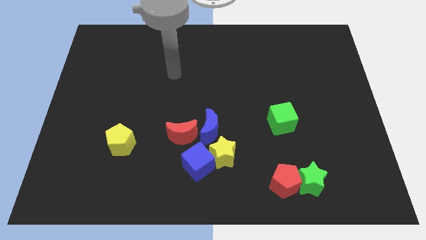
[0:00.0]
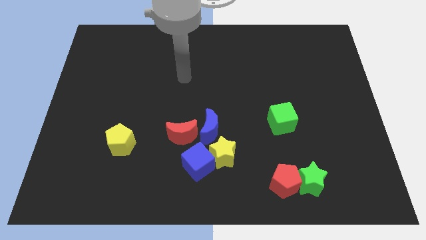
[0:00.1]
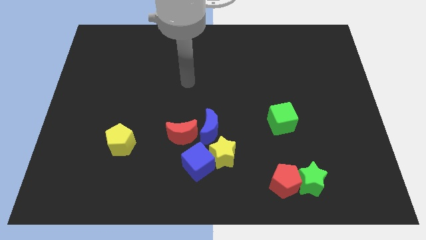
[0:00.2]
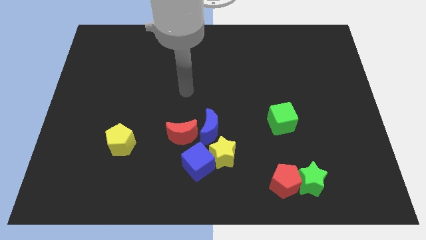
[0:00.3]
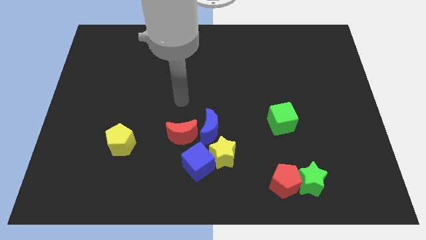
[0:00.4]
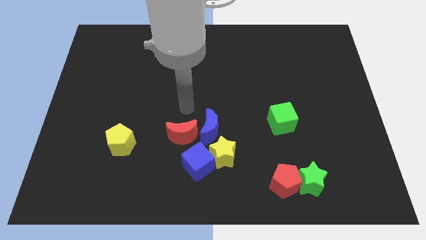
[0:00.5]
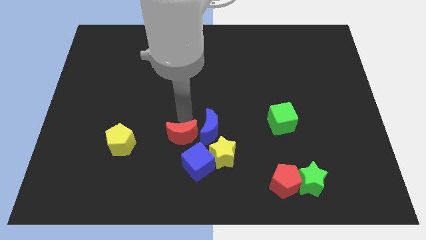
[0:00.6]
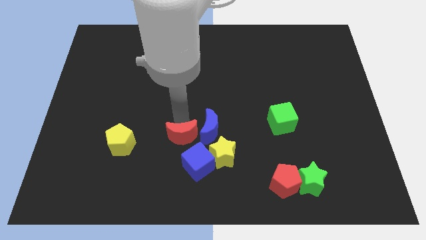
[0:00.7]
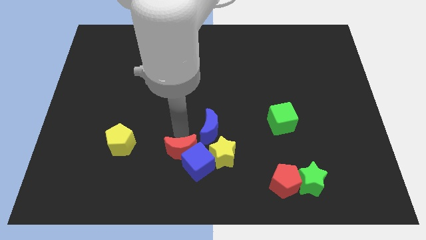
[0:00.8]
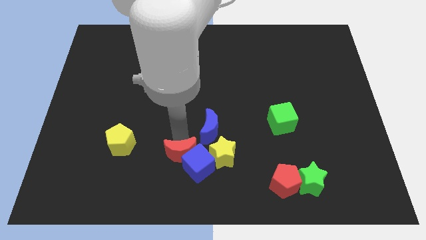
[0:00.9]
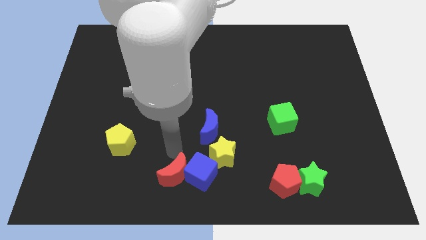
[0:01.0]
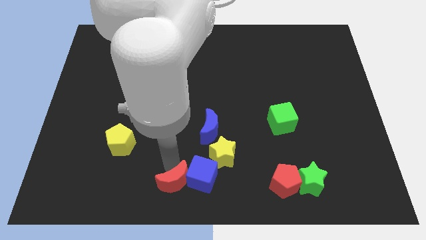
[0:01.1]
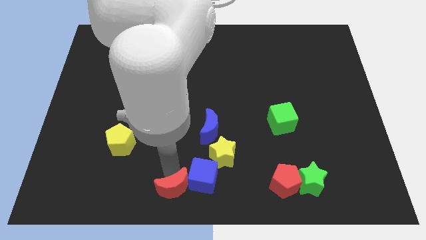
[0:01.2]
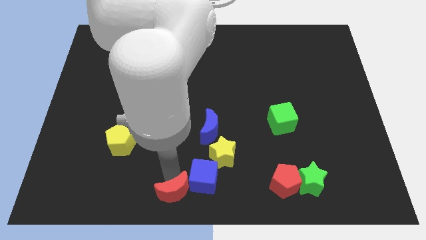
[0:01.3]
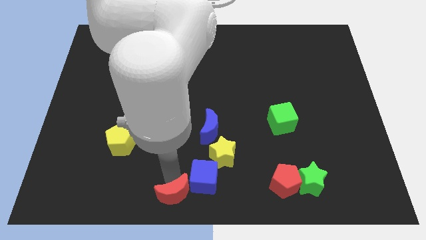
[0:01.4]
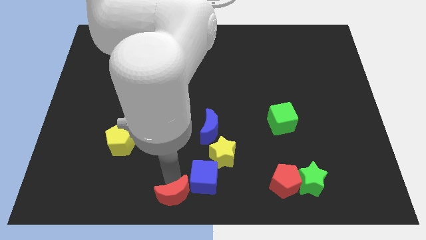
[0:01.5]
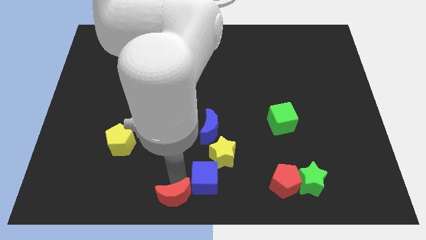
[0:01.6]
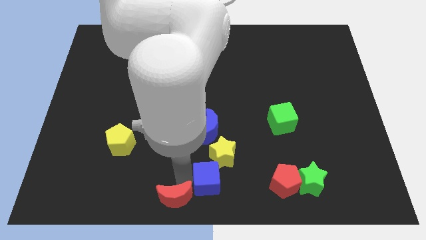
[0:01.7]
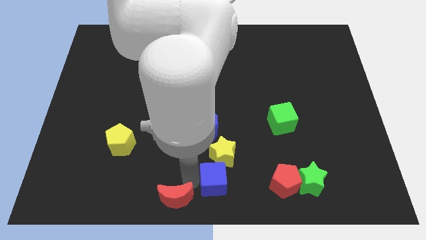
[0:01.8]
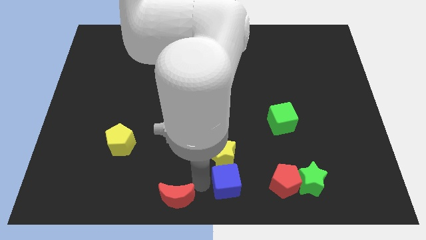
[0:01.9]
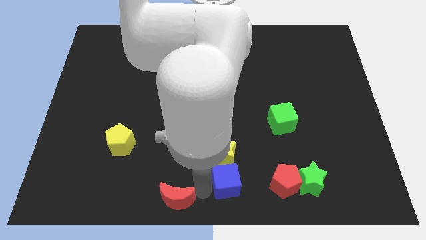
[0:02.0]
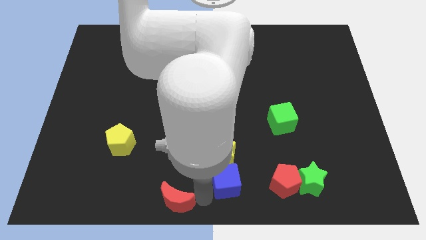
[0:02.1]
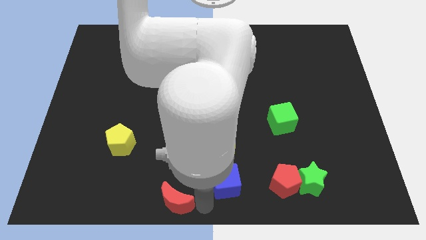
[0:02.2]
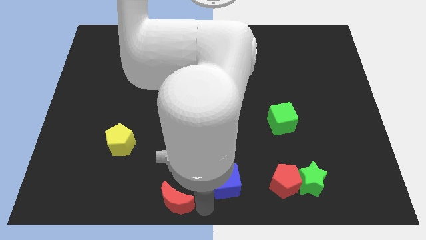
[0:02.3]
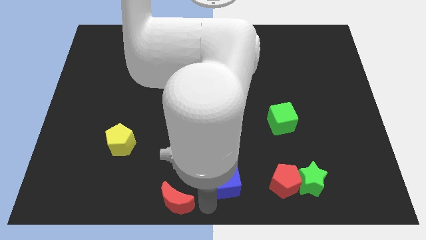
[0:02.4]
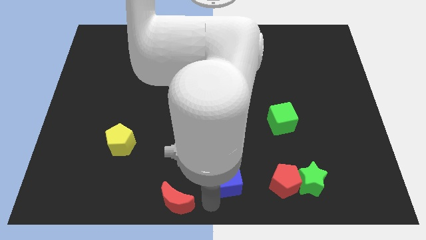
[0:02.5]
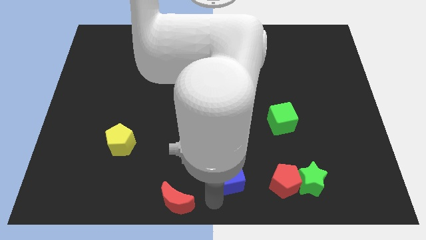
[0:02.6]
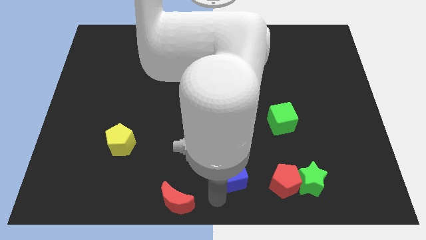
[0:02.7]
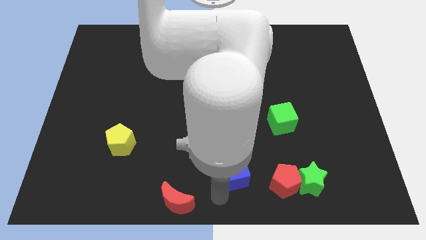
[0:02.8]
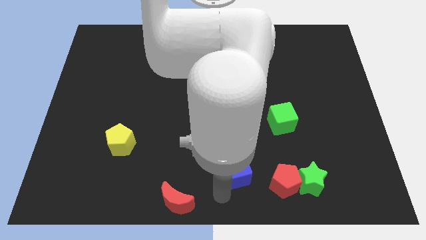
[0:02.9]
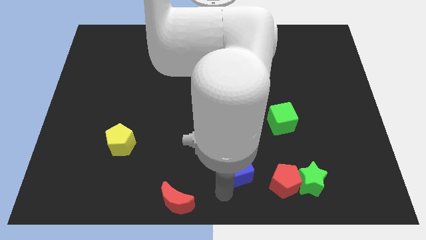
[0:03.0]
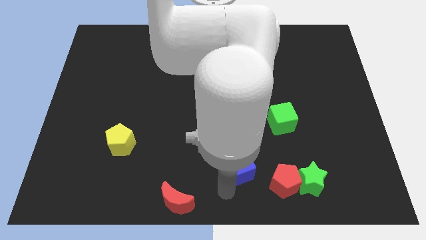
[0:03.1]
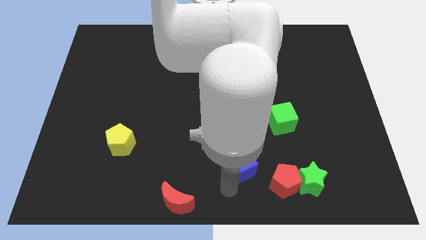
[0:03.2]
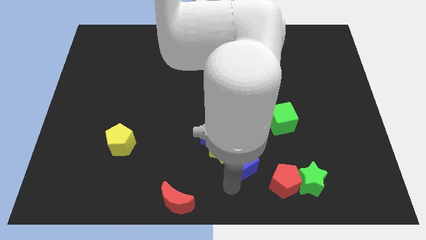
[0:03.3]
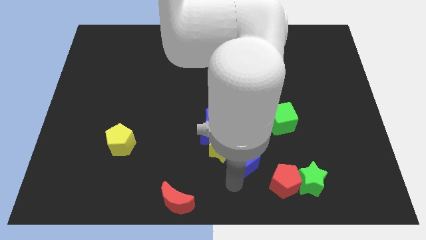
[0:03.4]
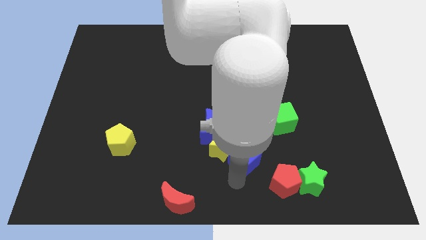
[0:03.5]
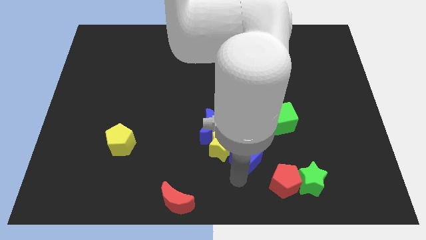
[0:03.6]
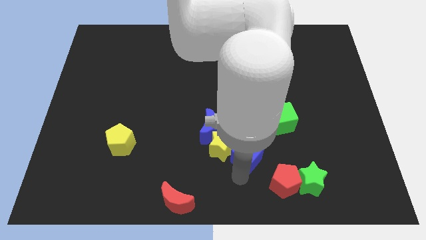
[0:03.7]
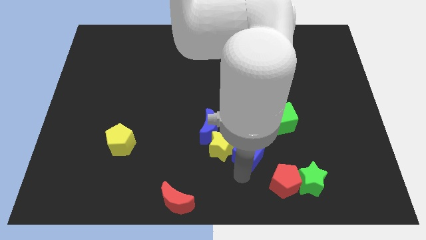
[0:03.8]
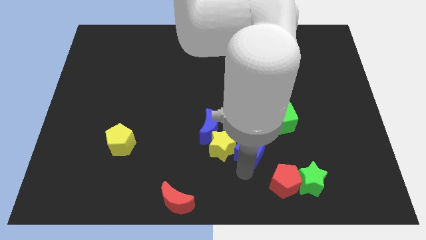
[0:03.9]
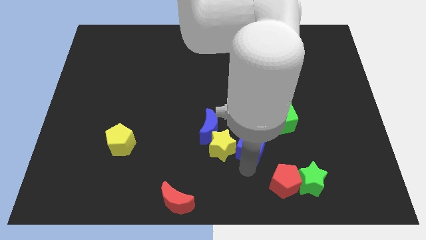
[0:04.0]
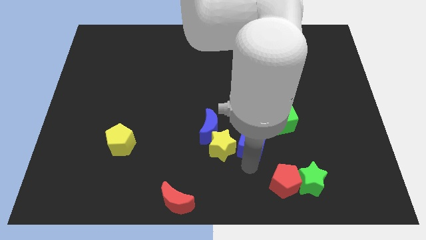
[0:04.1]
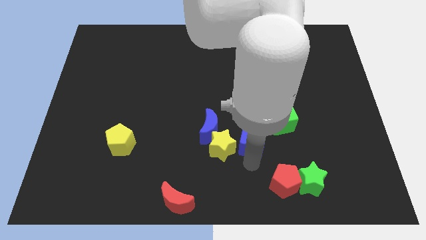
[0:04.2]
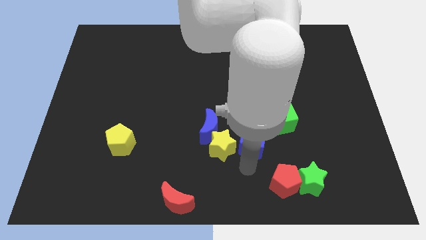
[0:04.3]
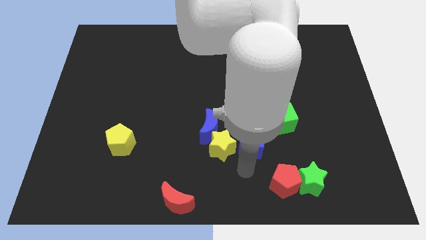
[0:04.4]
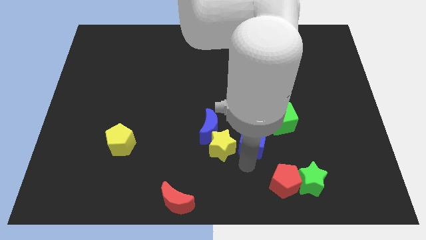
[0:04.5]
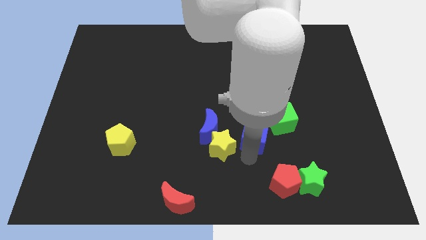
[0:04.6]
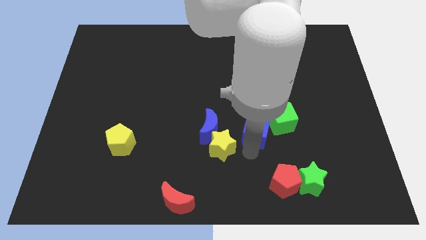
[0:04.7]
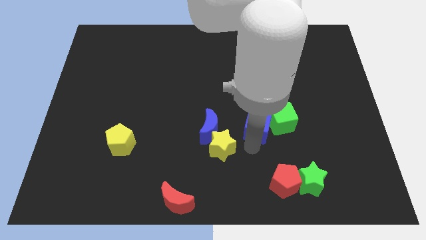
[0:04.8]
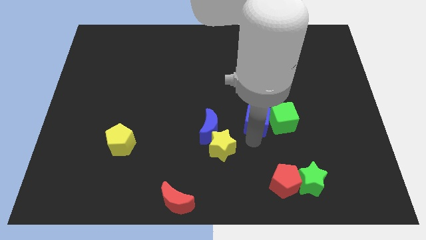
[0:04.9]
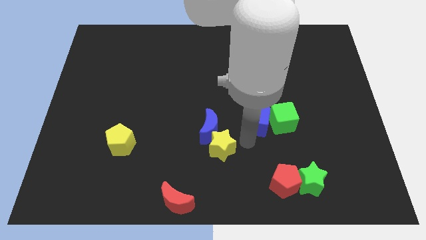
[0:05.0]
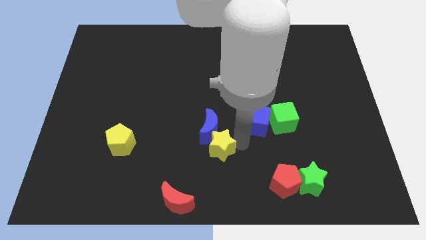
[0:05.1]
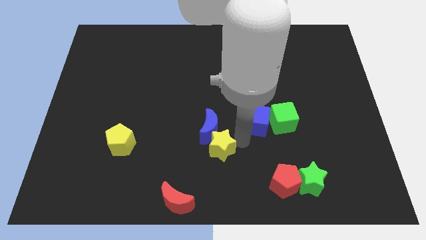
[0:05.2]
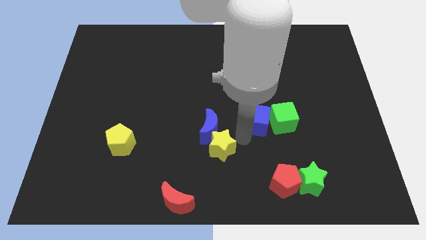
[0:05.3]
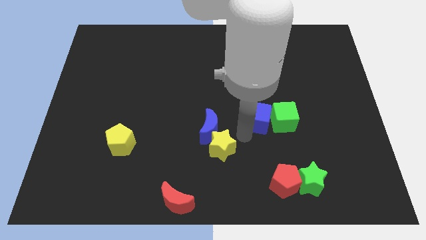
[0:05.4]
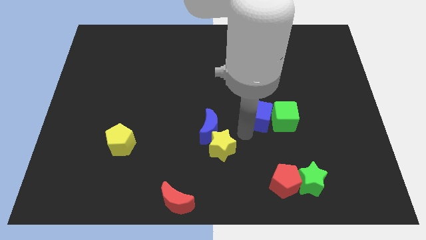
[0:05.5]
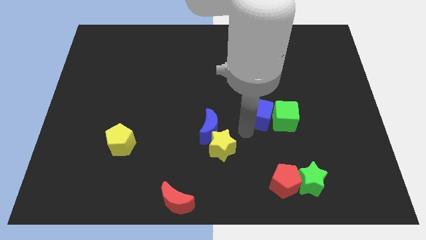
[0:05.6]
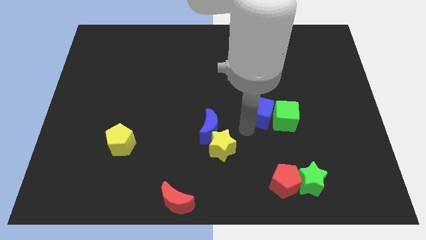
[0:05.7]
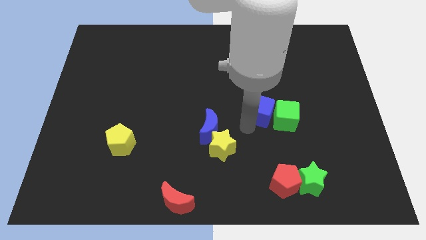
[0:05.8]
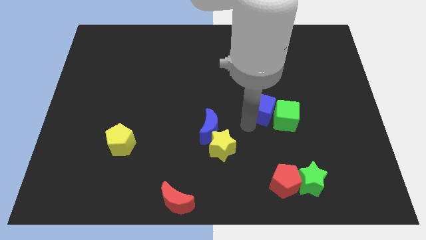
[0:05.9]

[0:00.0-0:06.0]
slide the blue cube diagonally upwards and to the right

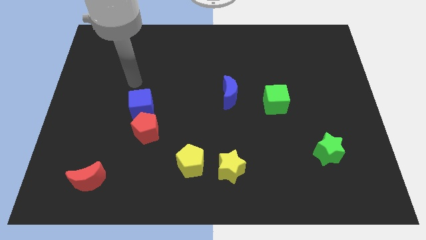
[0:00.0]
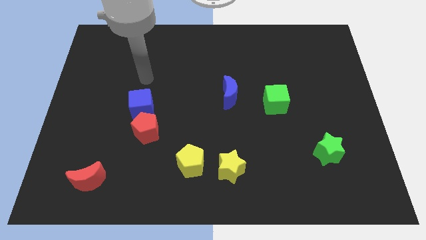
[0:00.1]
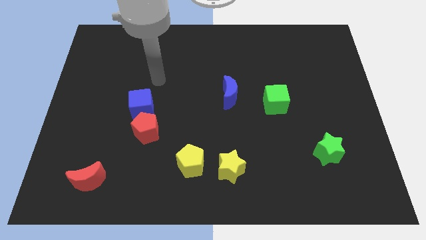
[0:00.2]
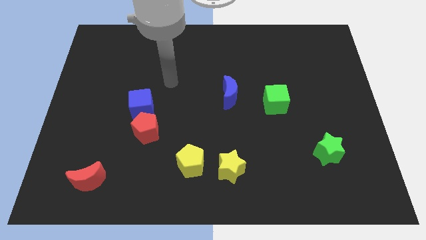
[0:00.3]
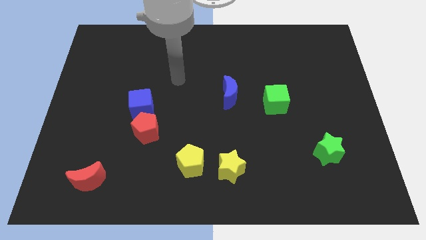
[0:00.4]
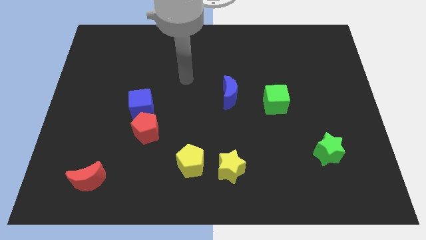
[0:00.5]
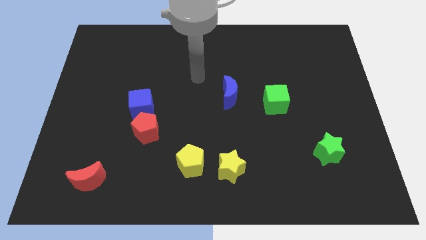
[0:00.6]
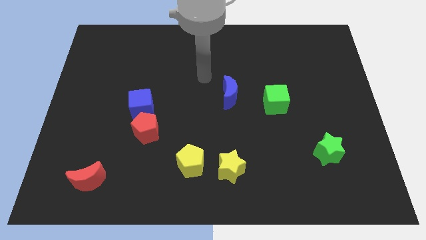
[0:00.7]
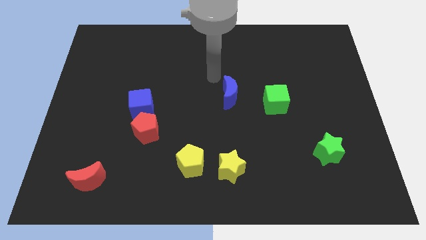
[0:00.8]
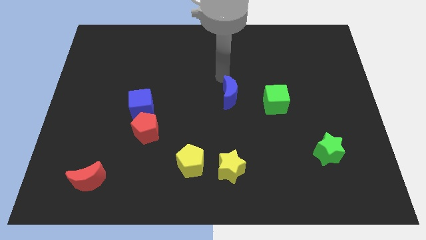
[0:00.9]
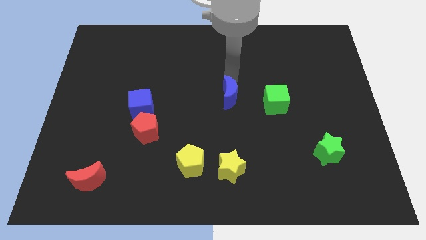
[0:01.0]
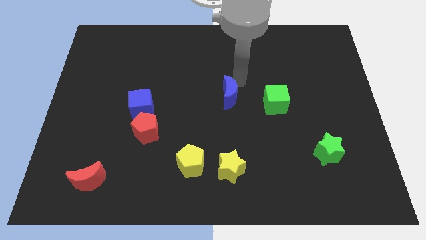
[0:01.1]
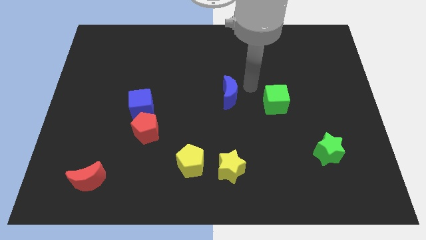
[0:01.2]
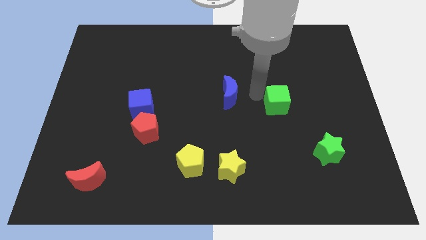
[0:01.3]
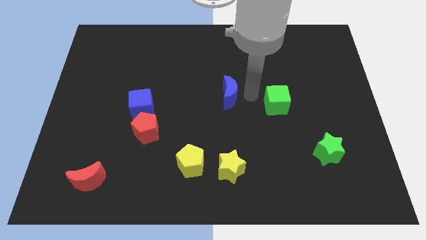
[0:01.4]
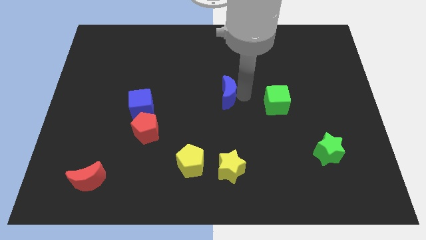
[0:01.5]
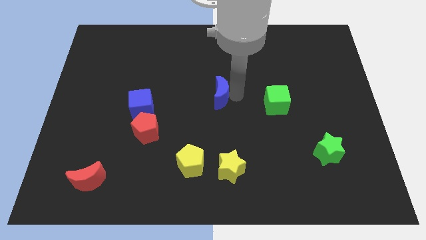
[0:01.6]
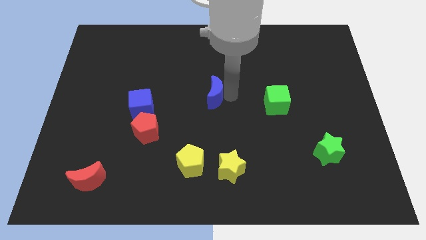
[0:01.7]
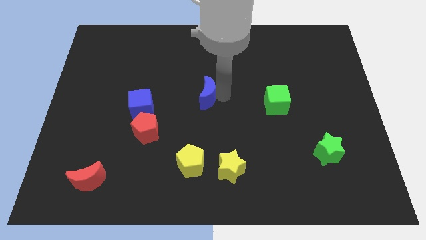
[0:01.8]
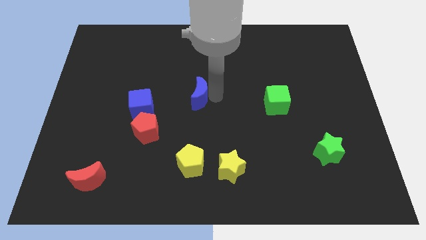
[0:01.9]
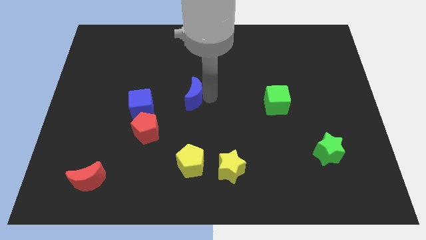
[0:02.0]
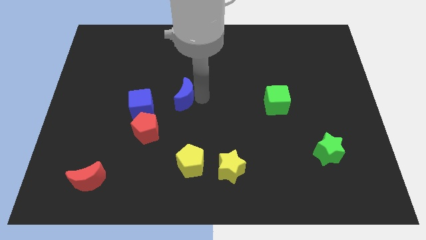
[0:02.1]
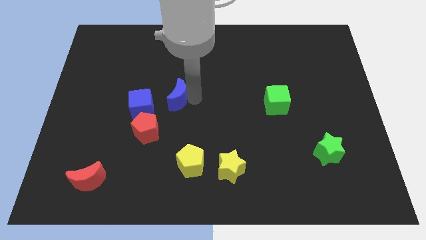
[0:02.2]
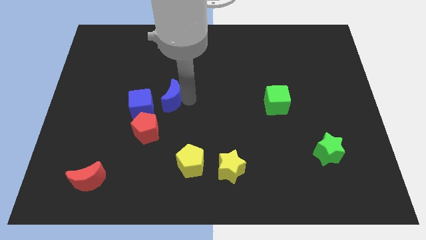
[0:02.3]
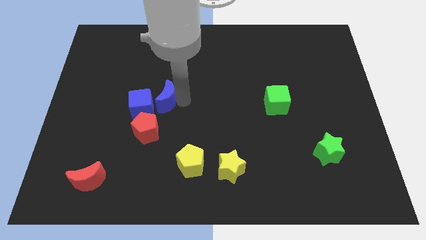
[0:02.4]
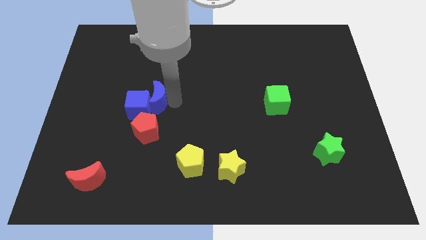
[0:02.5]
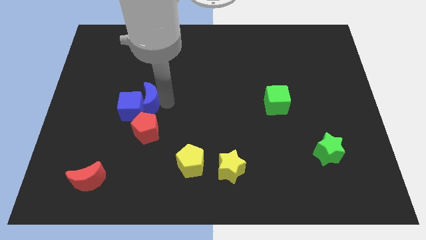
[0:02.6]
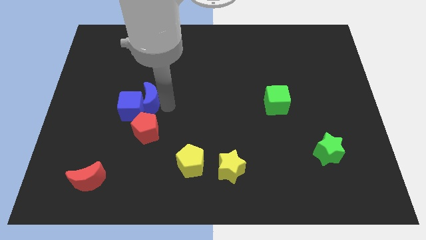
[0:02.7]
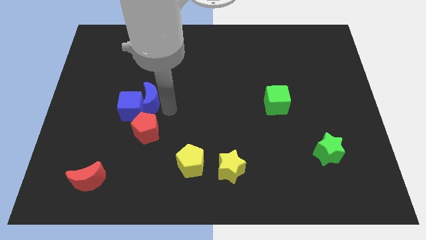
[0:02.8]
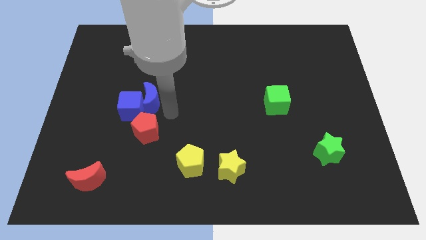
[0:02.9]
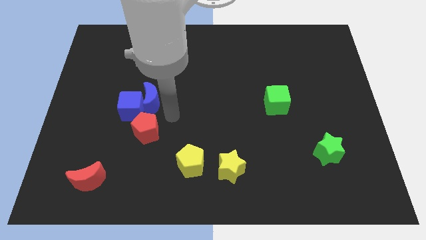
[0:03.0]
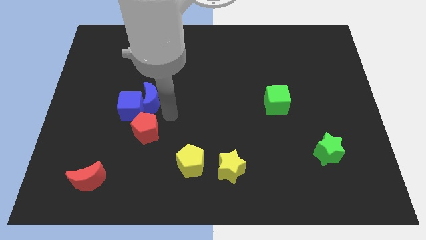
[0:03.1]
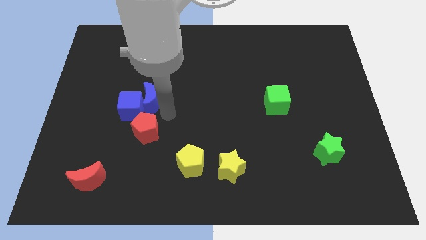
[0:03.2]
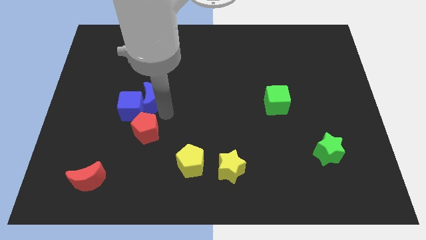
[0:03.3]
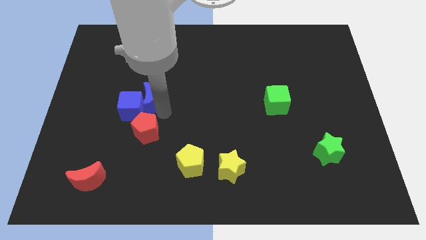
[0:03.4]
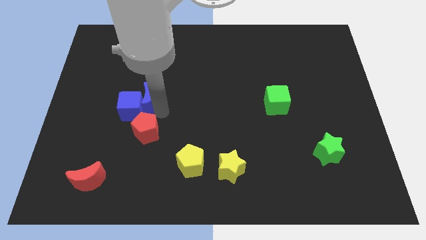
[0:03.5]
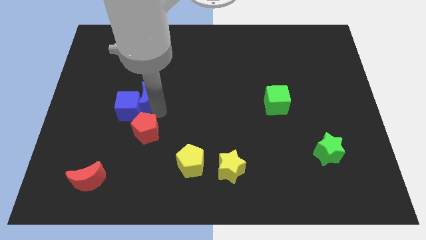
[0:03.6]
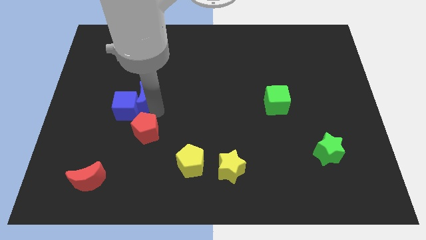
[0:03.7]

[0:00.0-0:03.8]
push the blue moon to the left
